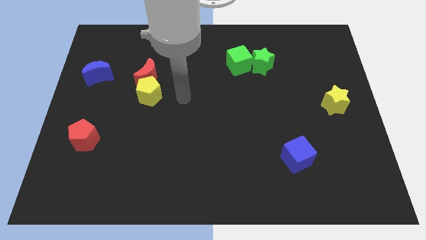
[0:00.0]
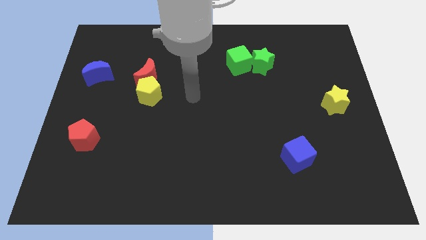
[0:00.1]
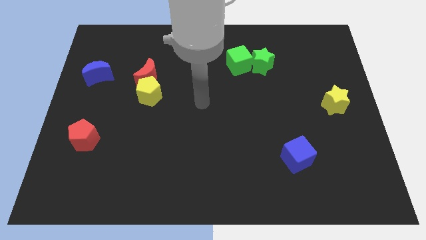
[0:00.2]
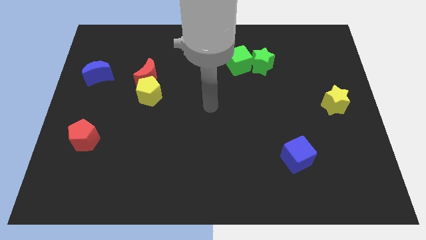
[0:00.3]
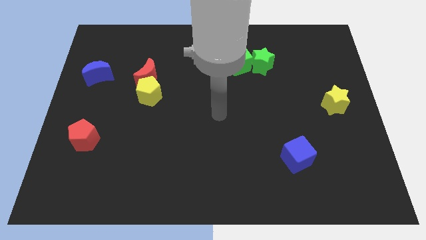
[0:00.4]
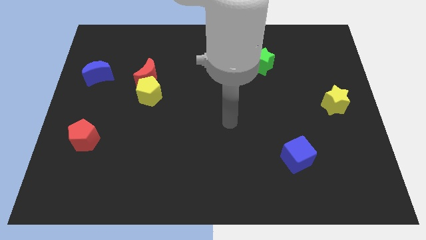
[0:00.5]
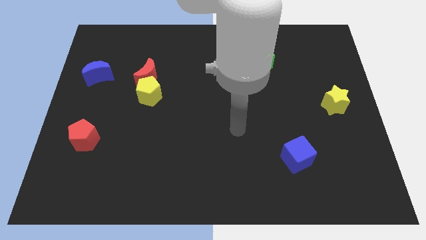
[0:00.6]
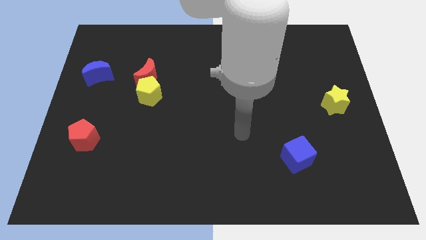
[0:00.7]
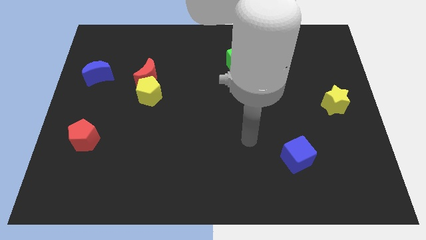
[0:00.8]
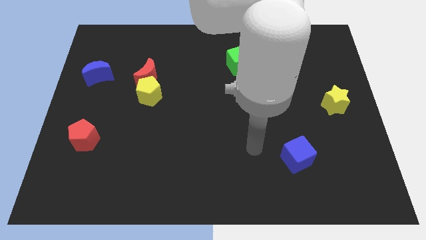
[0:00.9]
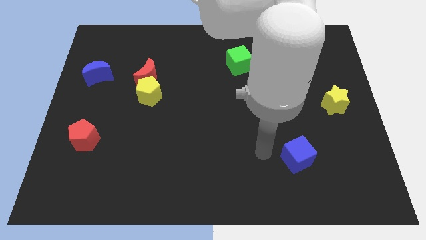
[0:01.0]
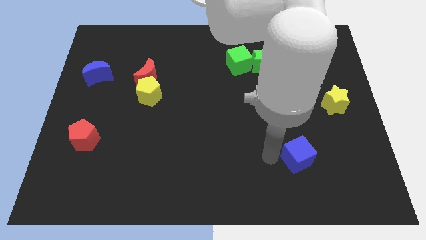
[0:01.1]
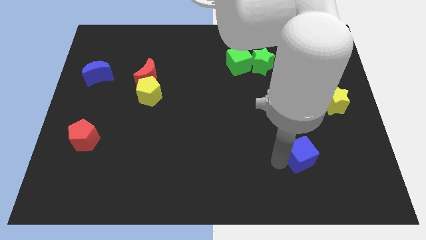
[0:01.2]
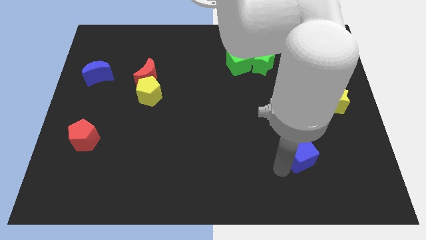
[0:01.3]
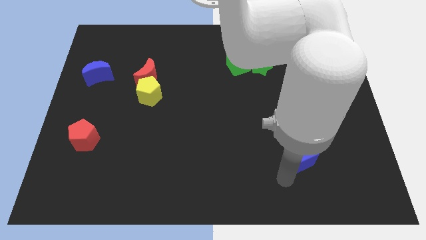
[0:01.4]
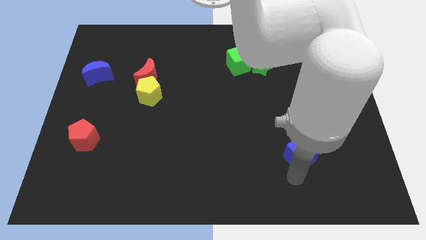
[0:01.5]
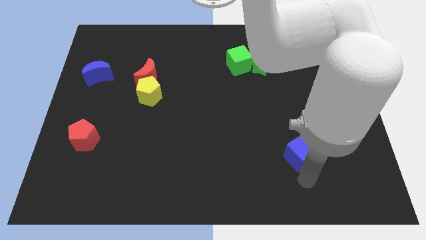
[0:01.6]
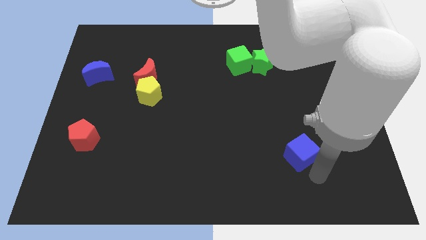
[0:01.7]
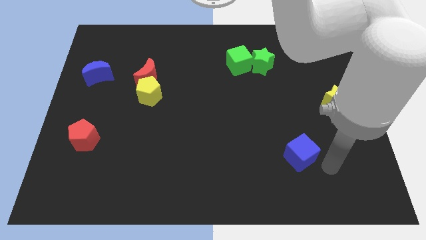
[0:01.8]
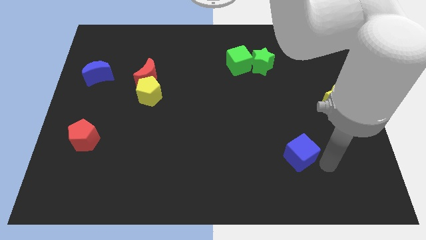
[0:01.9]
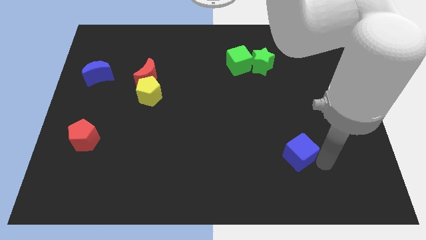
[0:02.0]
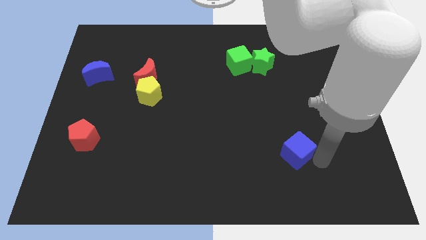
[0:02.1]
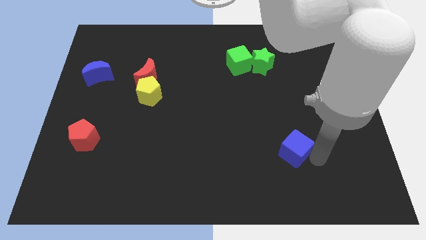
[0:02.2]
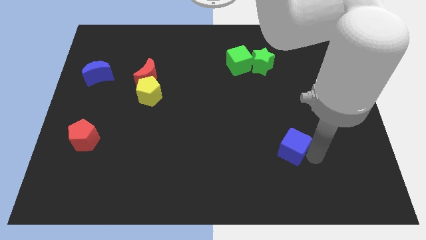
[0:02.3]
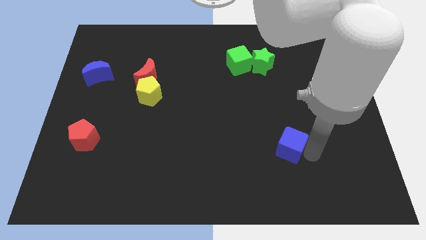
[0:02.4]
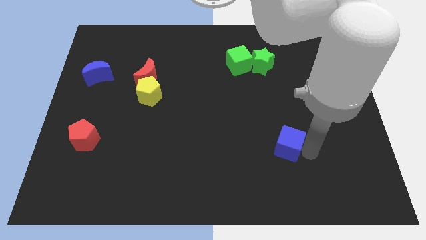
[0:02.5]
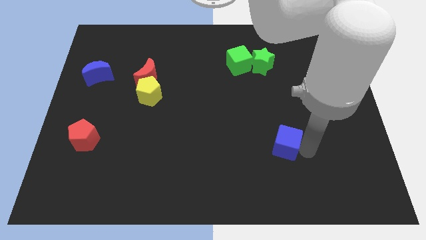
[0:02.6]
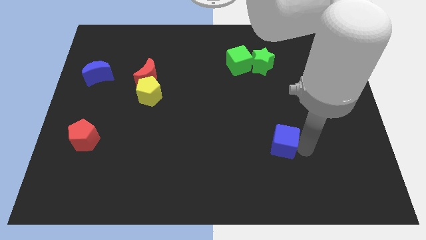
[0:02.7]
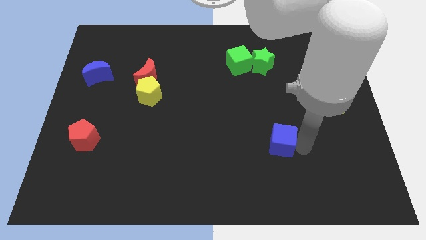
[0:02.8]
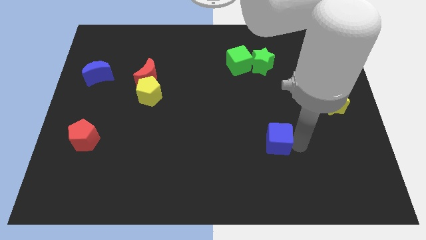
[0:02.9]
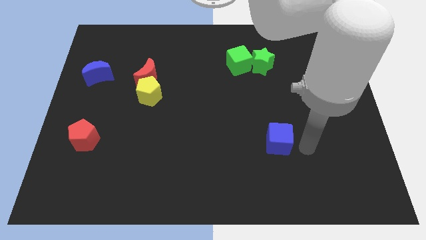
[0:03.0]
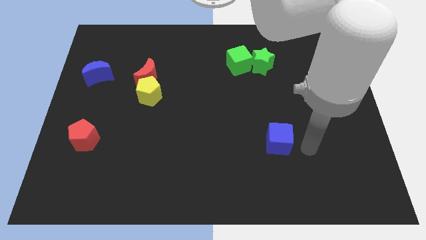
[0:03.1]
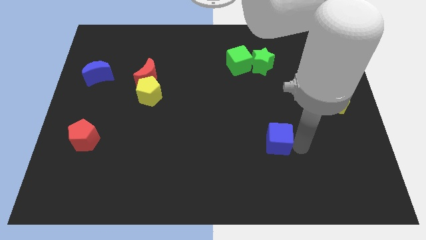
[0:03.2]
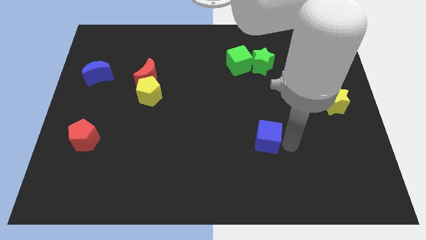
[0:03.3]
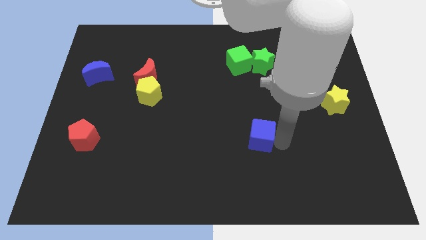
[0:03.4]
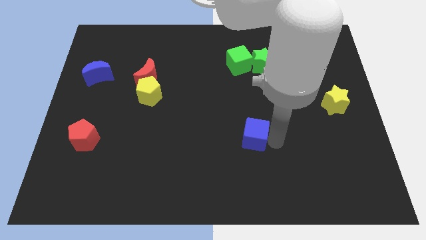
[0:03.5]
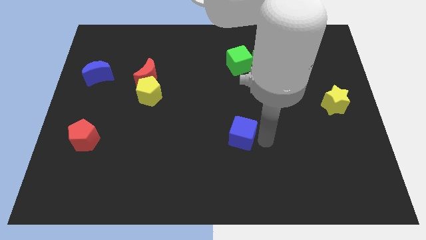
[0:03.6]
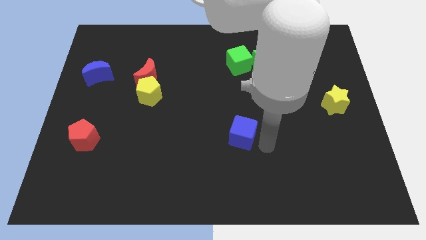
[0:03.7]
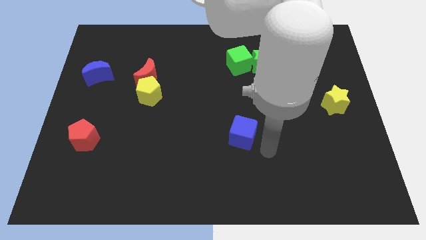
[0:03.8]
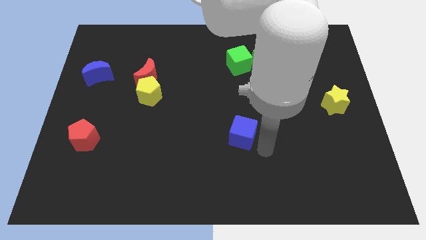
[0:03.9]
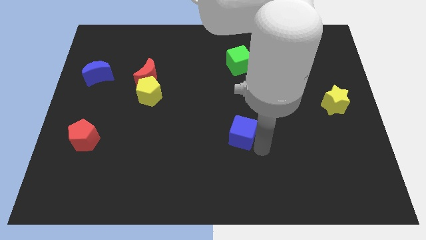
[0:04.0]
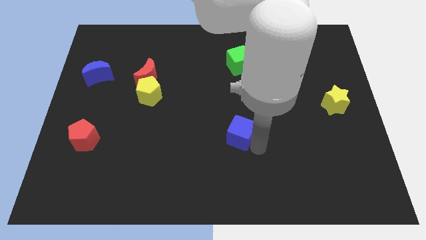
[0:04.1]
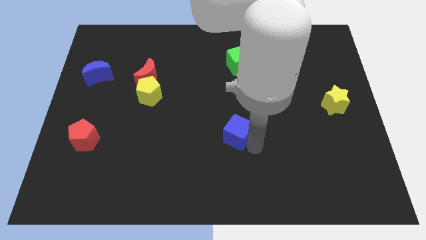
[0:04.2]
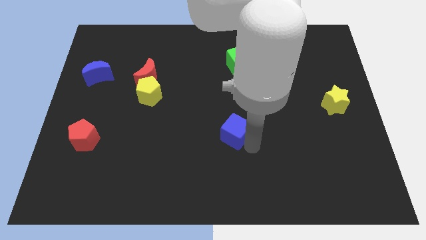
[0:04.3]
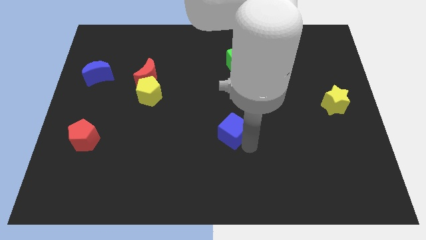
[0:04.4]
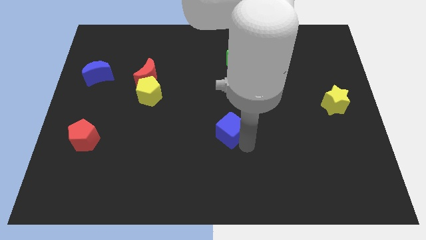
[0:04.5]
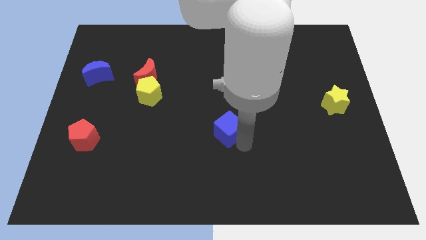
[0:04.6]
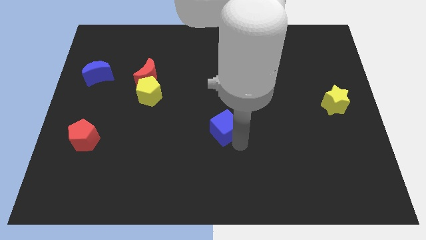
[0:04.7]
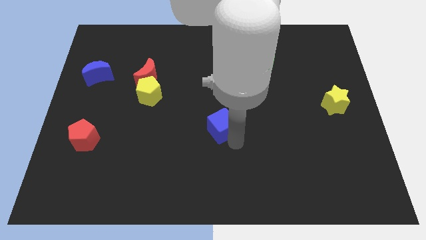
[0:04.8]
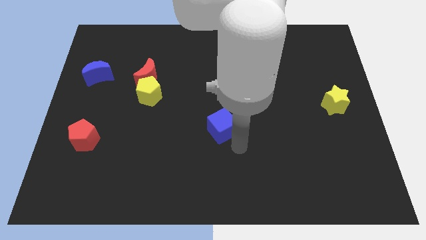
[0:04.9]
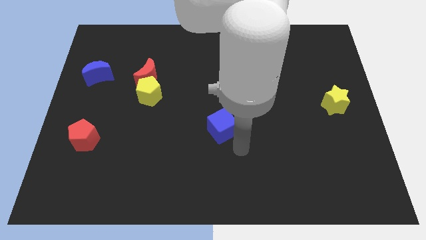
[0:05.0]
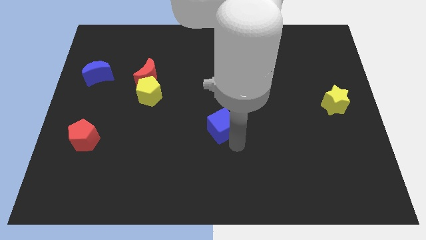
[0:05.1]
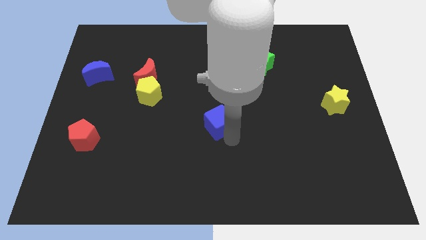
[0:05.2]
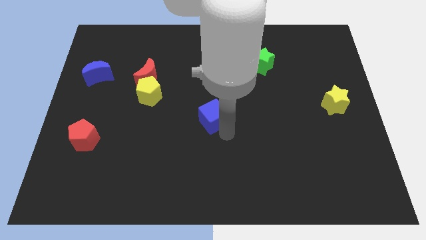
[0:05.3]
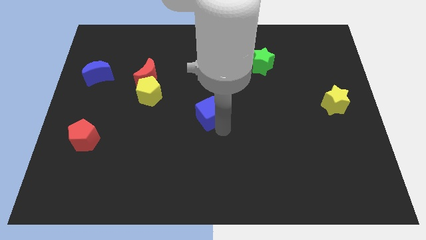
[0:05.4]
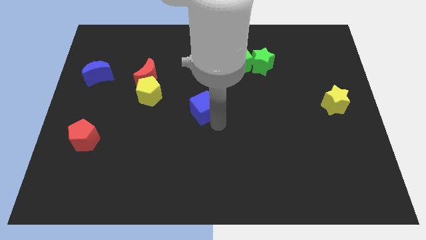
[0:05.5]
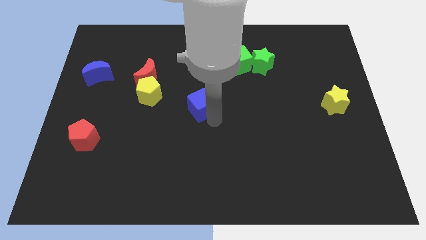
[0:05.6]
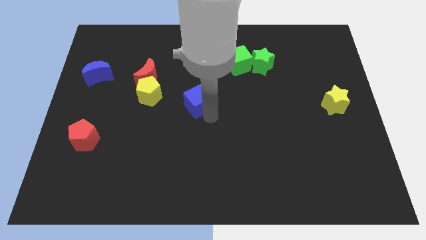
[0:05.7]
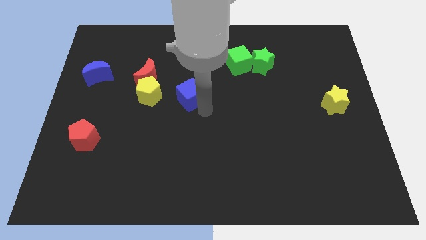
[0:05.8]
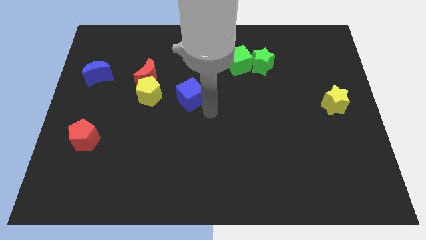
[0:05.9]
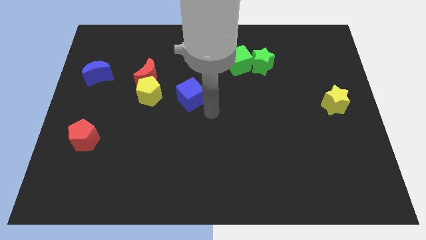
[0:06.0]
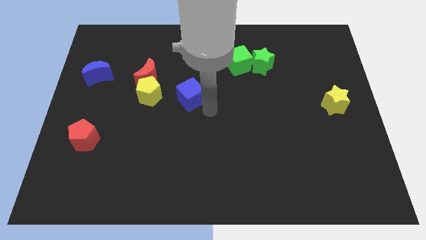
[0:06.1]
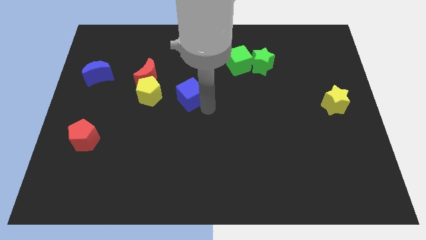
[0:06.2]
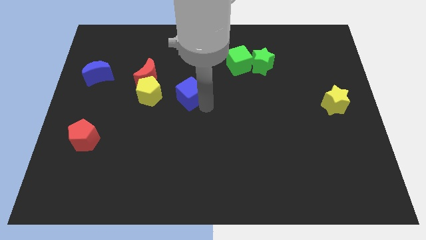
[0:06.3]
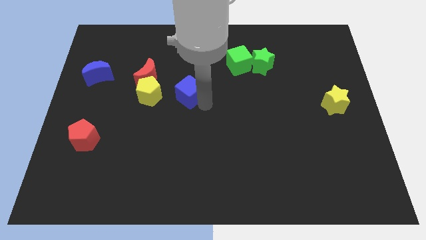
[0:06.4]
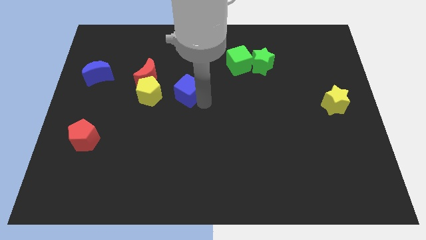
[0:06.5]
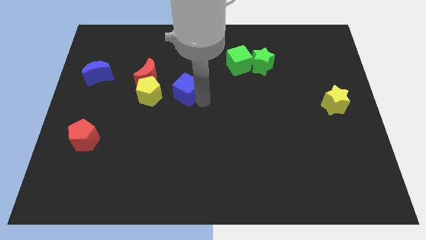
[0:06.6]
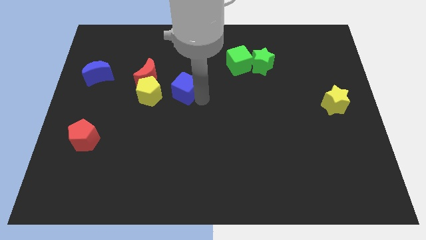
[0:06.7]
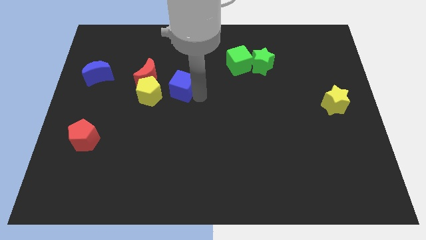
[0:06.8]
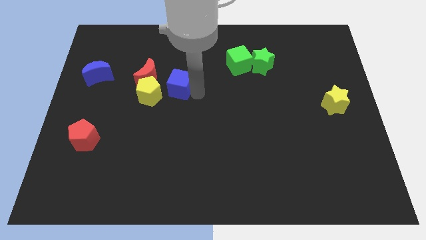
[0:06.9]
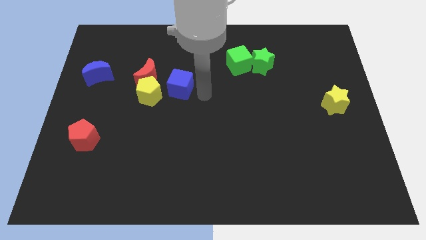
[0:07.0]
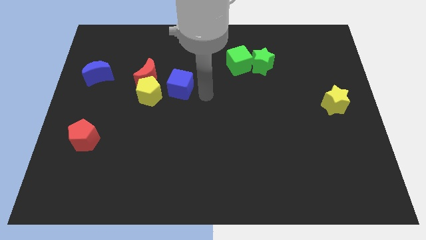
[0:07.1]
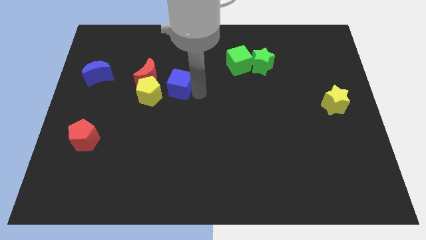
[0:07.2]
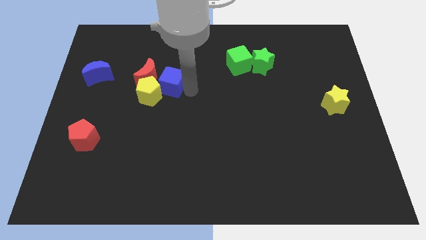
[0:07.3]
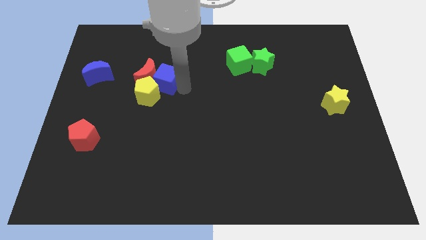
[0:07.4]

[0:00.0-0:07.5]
slide the blue cube to the red moon
